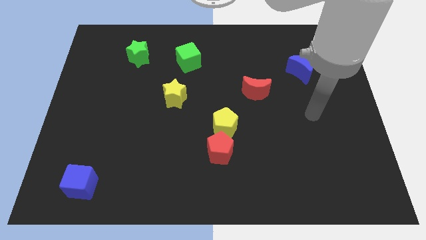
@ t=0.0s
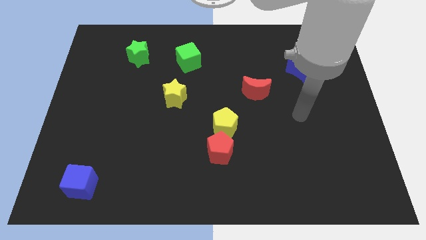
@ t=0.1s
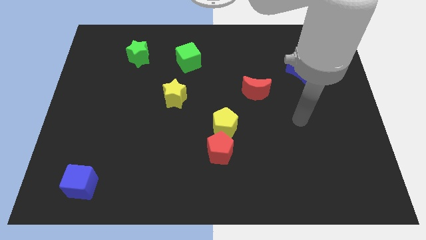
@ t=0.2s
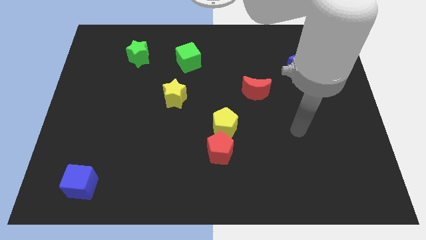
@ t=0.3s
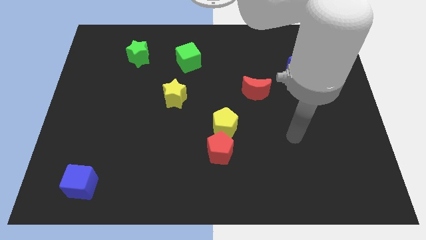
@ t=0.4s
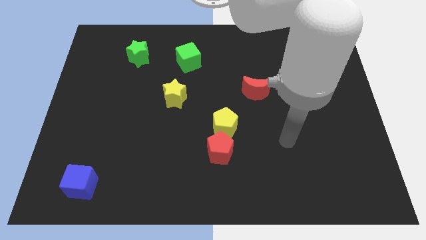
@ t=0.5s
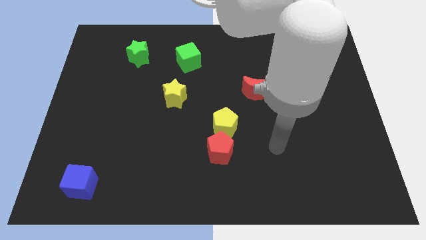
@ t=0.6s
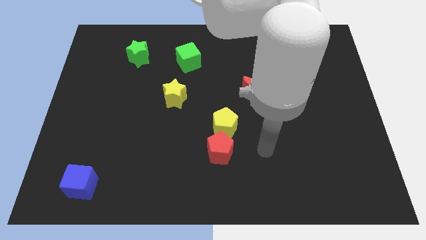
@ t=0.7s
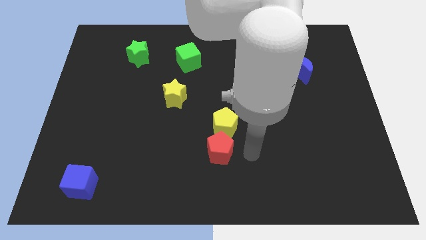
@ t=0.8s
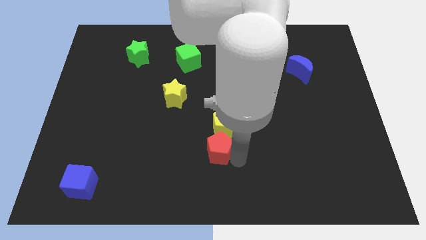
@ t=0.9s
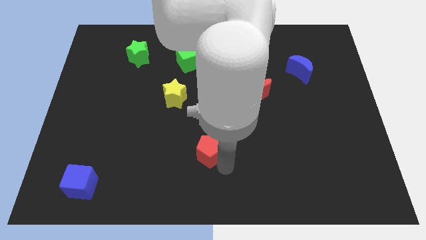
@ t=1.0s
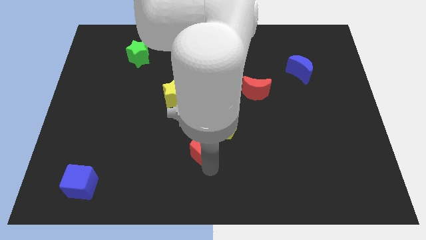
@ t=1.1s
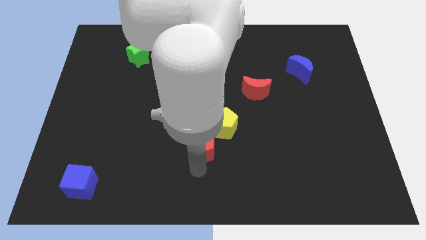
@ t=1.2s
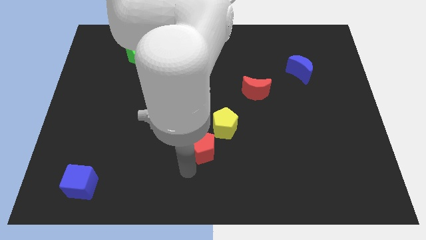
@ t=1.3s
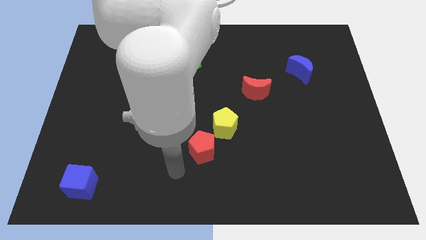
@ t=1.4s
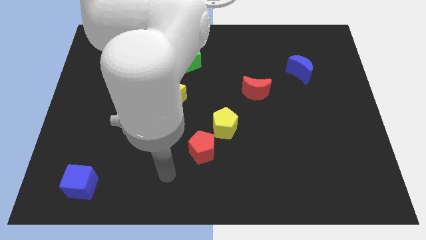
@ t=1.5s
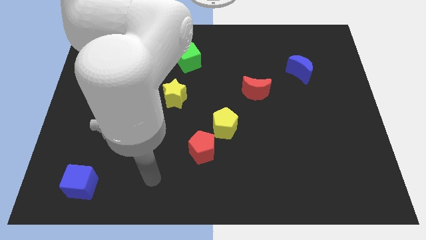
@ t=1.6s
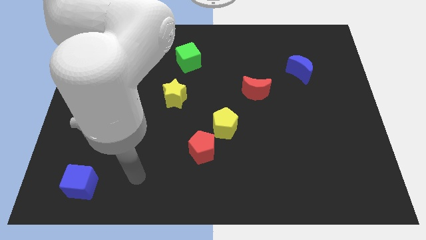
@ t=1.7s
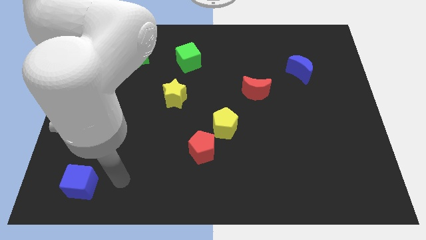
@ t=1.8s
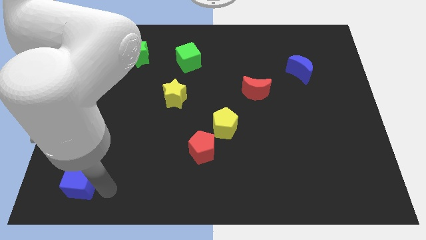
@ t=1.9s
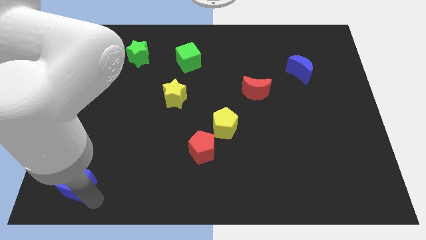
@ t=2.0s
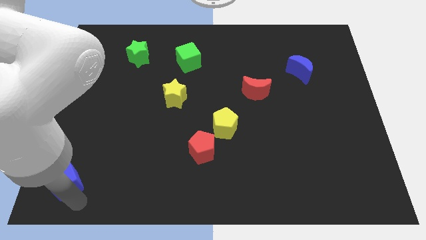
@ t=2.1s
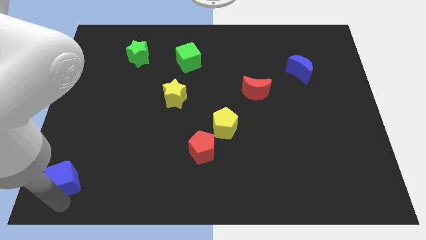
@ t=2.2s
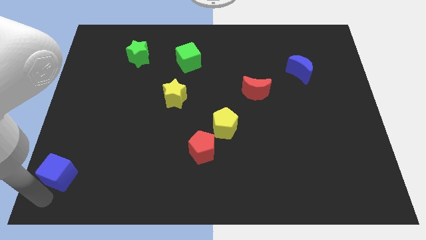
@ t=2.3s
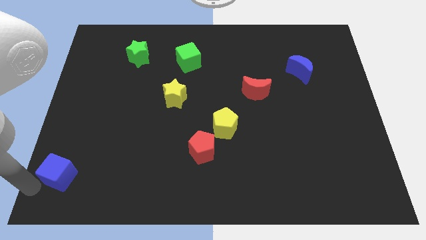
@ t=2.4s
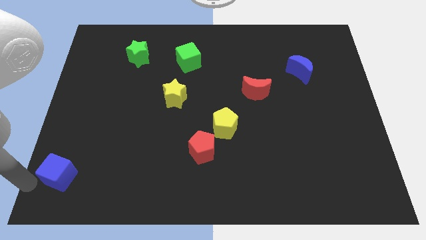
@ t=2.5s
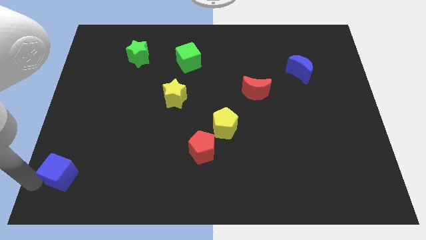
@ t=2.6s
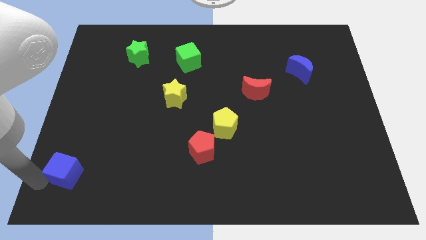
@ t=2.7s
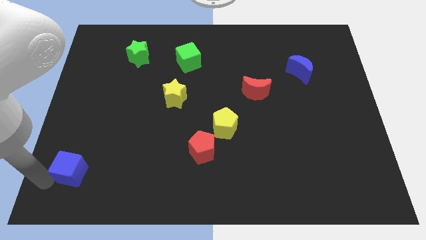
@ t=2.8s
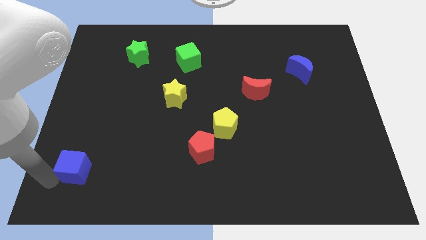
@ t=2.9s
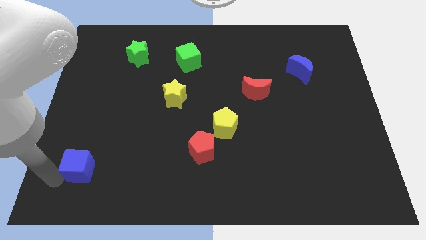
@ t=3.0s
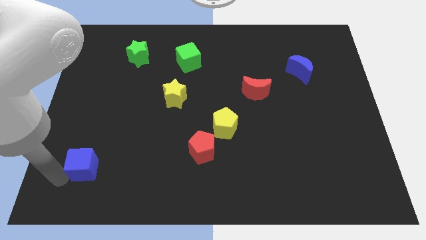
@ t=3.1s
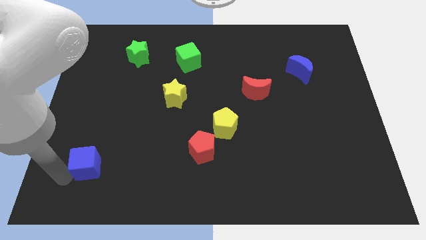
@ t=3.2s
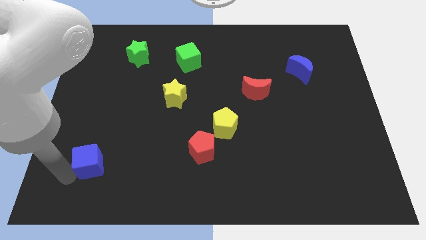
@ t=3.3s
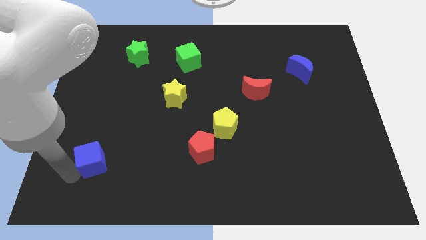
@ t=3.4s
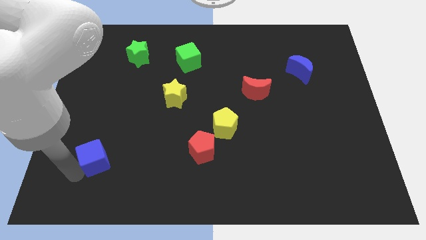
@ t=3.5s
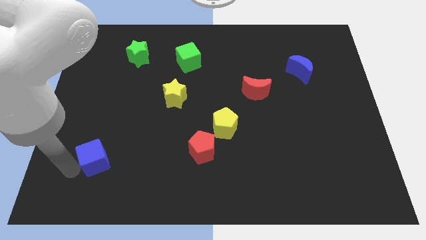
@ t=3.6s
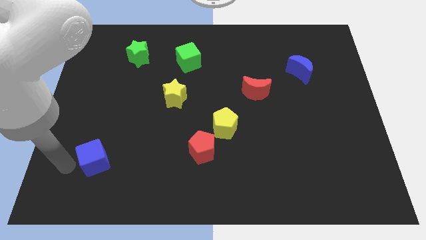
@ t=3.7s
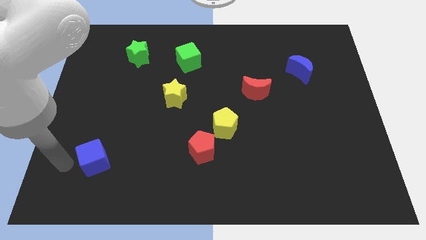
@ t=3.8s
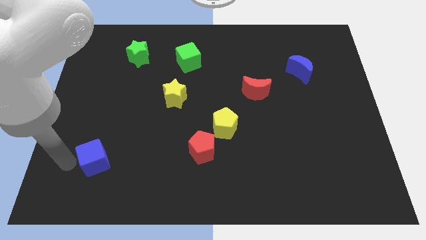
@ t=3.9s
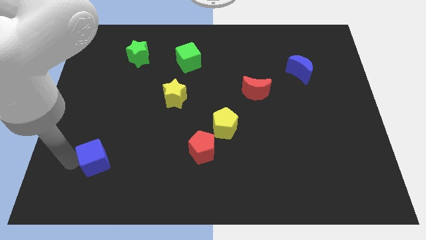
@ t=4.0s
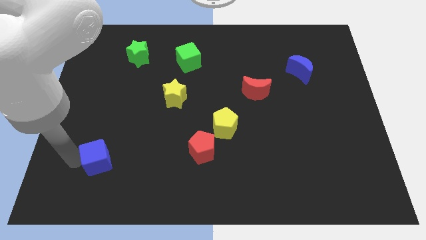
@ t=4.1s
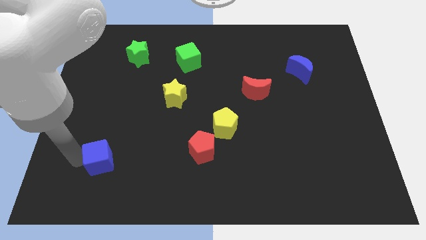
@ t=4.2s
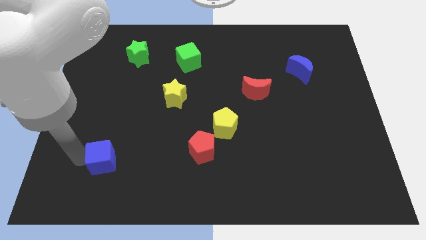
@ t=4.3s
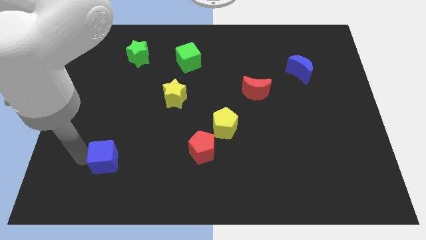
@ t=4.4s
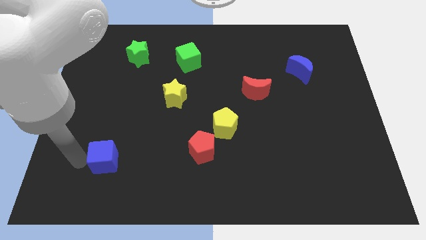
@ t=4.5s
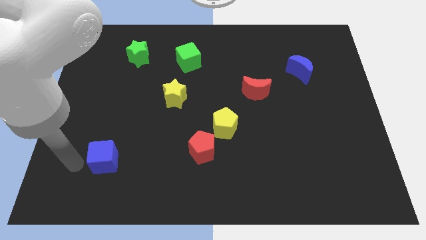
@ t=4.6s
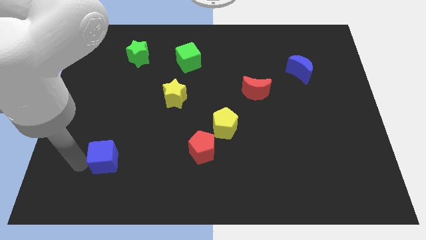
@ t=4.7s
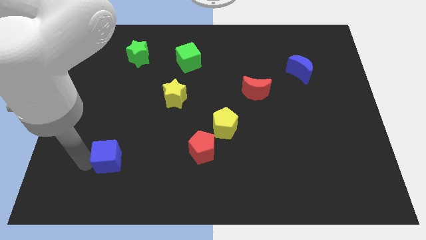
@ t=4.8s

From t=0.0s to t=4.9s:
slightly push the blue cube up and to the right diagonally

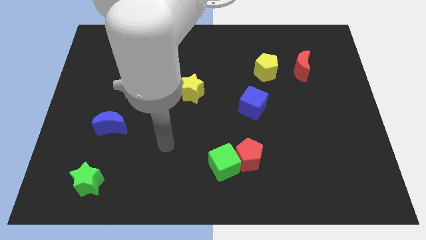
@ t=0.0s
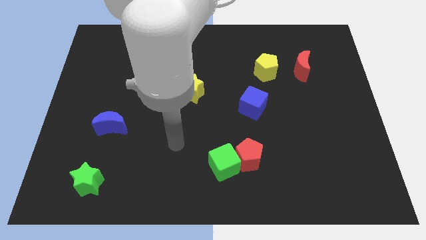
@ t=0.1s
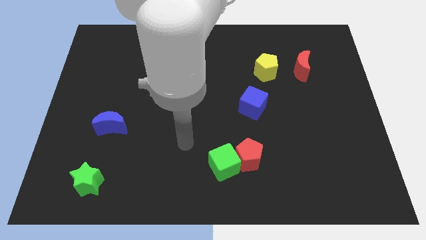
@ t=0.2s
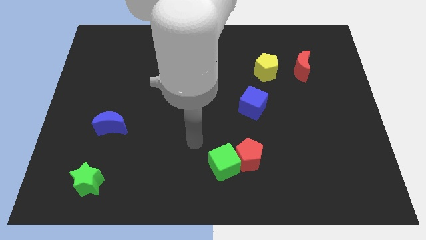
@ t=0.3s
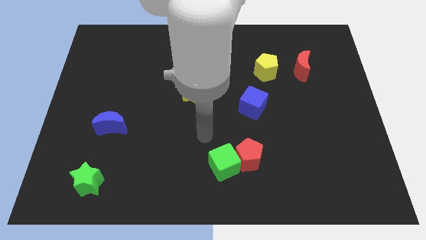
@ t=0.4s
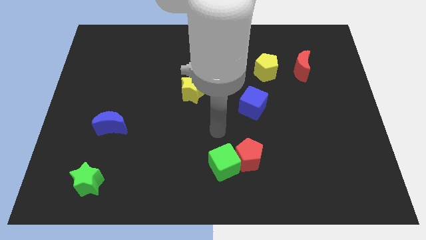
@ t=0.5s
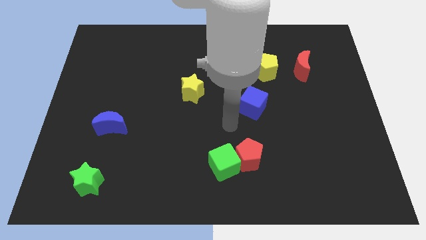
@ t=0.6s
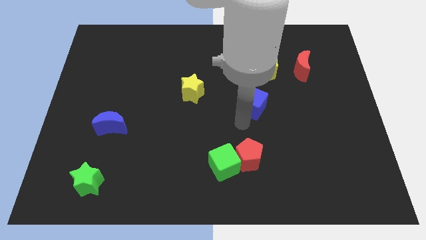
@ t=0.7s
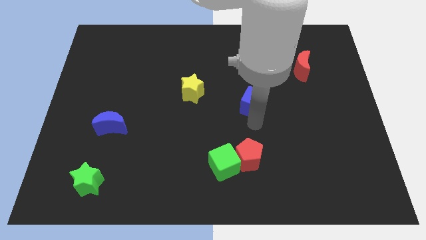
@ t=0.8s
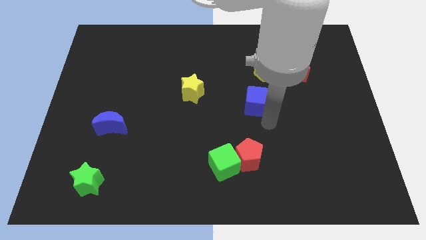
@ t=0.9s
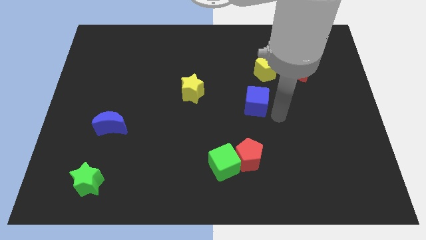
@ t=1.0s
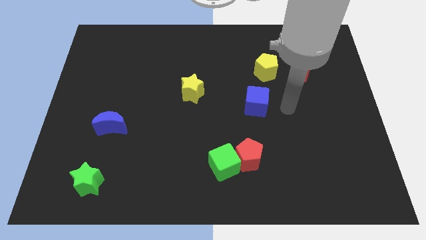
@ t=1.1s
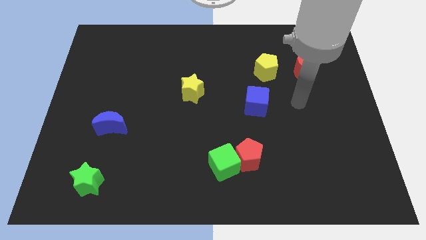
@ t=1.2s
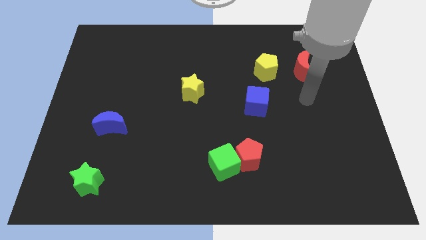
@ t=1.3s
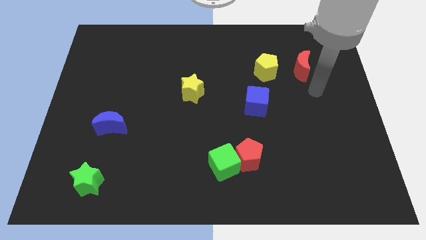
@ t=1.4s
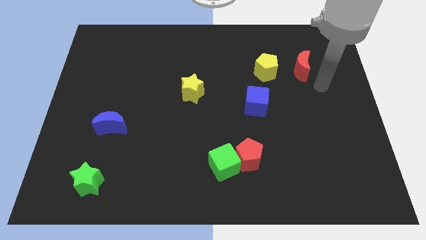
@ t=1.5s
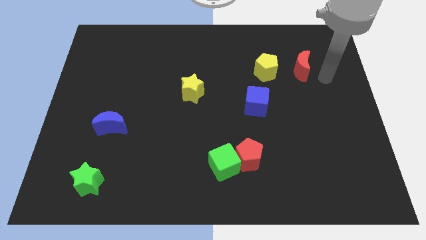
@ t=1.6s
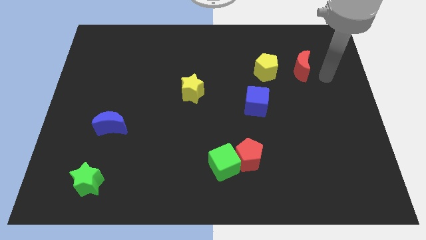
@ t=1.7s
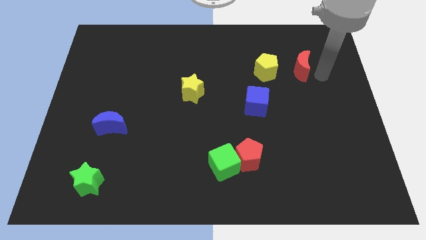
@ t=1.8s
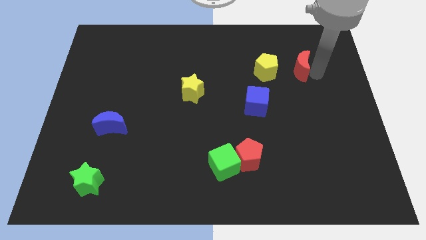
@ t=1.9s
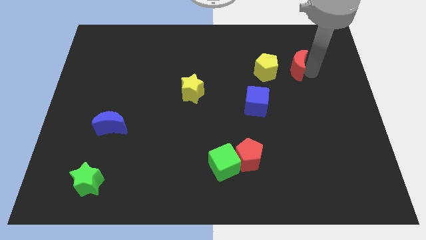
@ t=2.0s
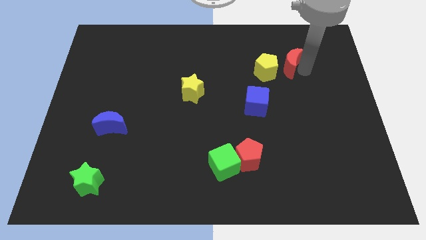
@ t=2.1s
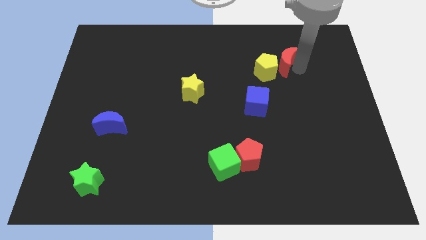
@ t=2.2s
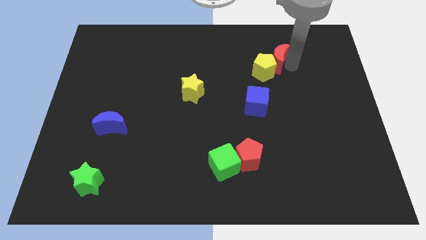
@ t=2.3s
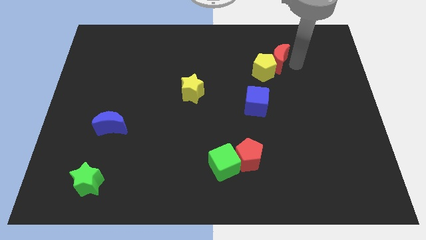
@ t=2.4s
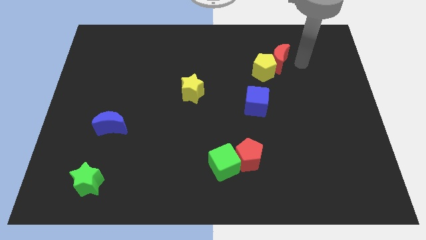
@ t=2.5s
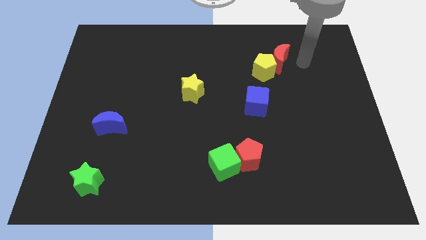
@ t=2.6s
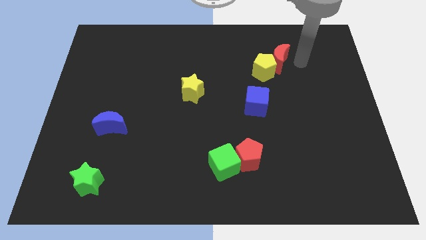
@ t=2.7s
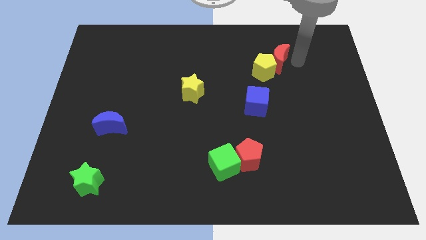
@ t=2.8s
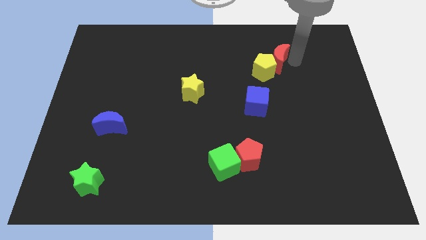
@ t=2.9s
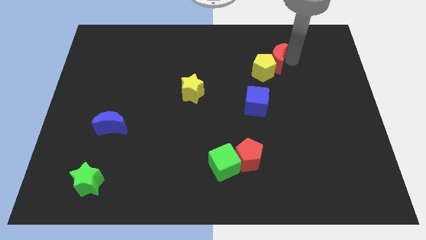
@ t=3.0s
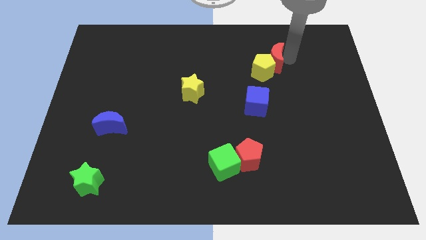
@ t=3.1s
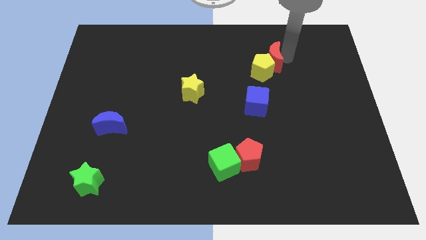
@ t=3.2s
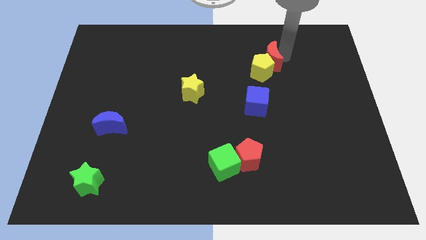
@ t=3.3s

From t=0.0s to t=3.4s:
move the red moon a little bit left
